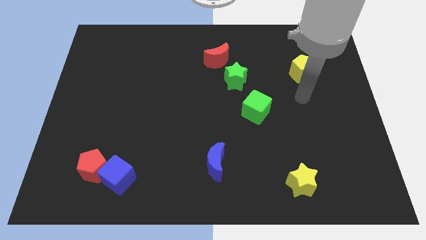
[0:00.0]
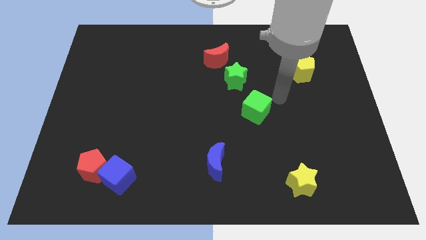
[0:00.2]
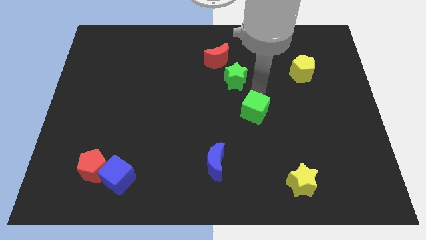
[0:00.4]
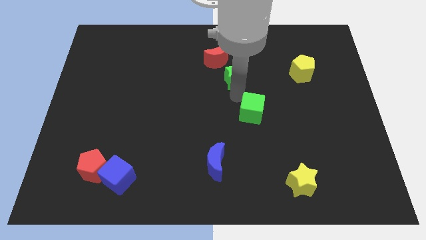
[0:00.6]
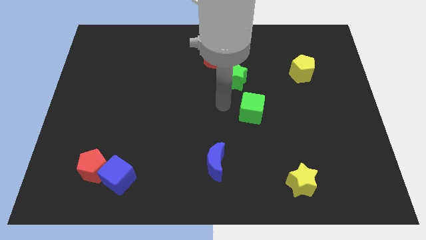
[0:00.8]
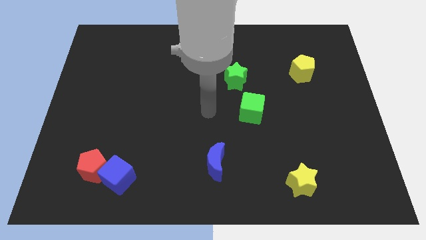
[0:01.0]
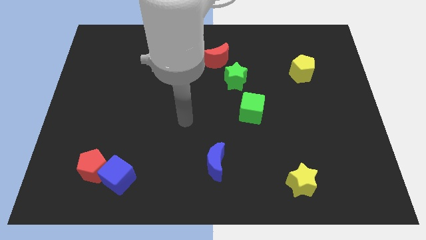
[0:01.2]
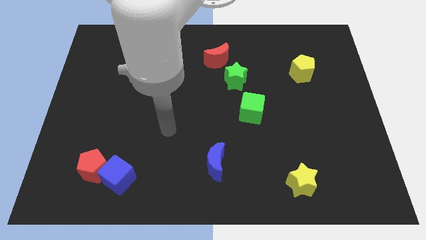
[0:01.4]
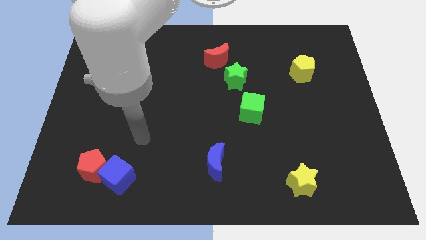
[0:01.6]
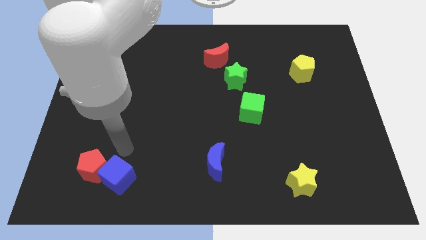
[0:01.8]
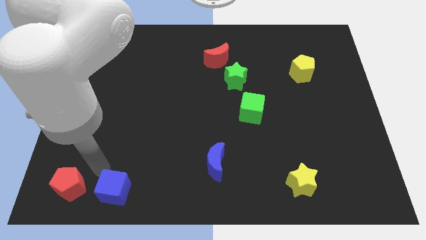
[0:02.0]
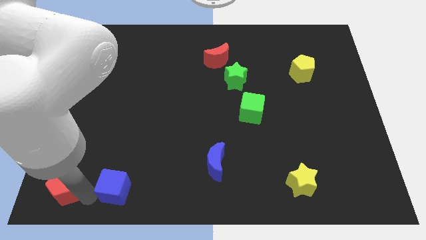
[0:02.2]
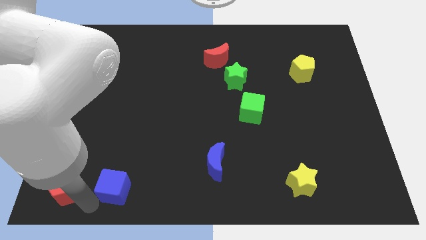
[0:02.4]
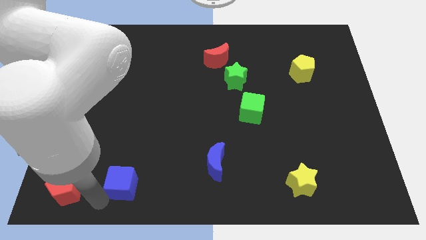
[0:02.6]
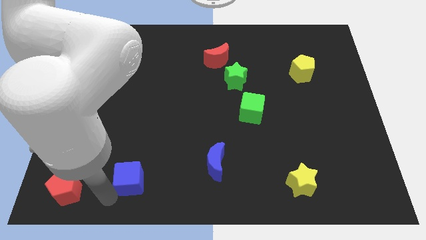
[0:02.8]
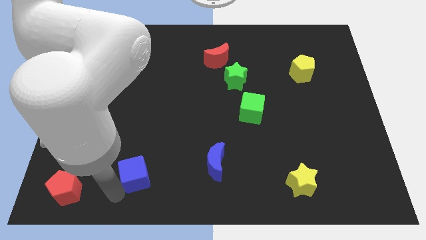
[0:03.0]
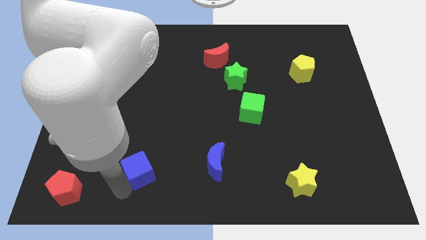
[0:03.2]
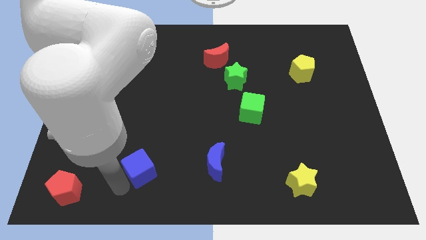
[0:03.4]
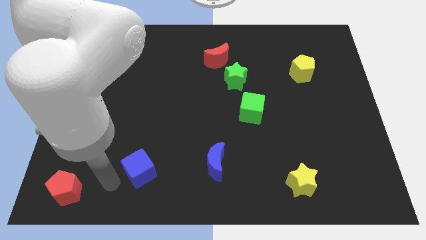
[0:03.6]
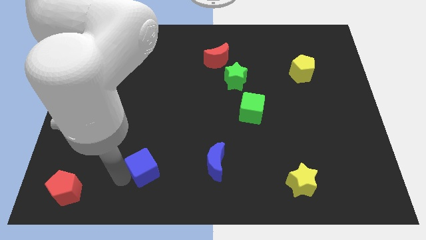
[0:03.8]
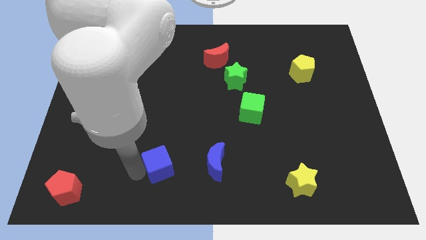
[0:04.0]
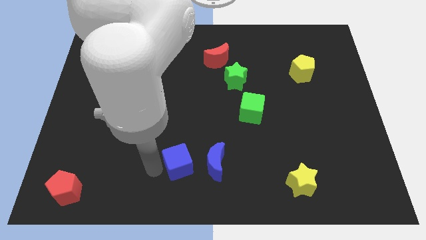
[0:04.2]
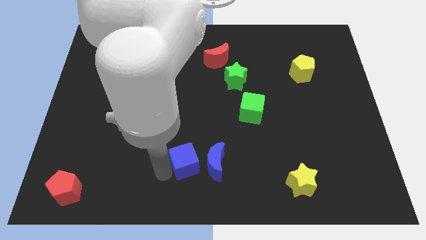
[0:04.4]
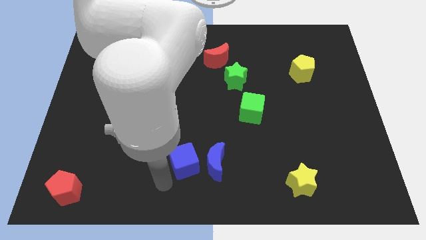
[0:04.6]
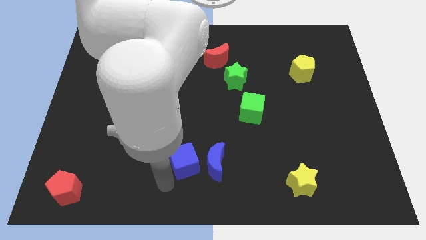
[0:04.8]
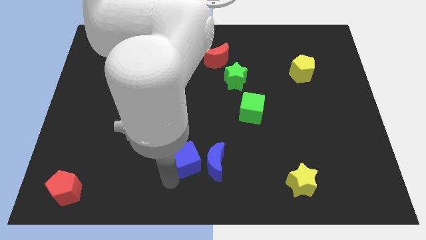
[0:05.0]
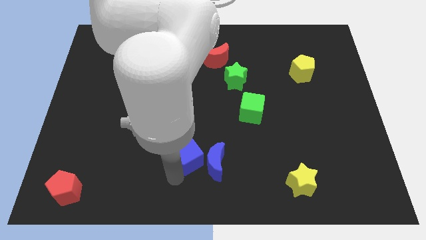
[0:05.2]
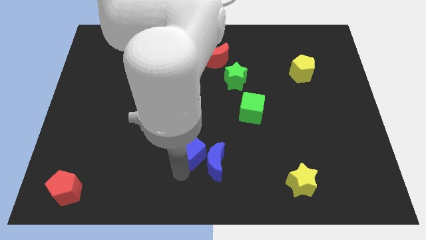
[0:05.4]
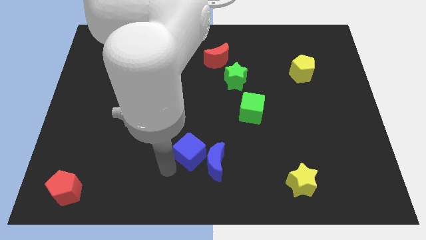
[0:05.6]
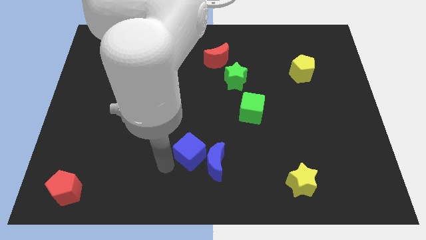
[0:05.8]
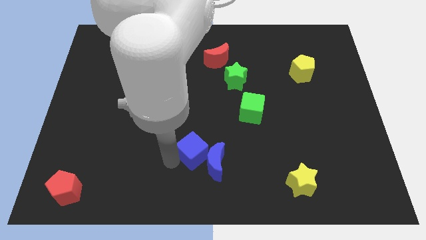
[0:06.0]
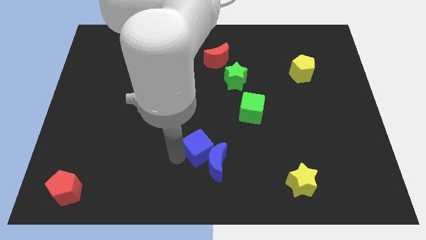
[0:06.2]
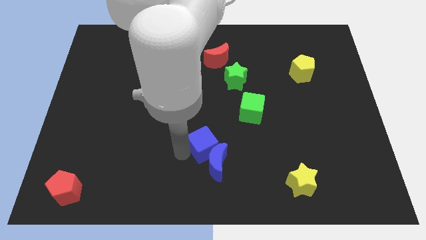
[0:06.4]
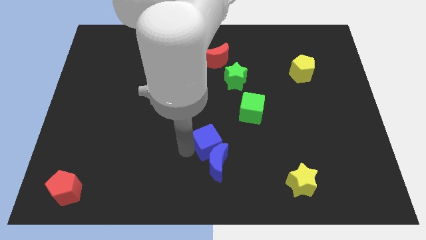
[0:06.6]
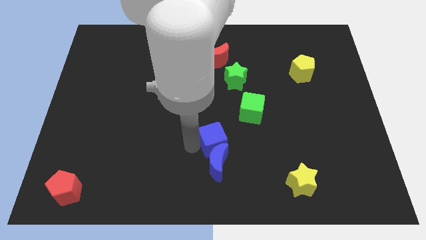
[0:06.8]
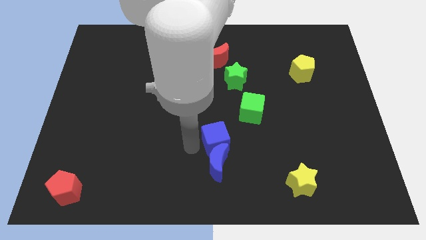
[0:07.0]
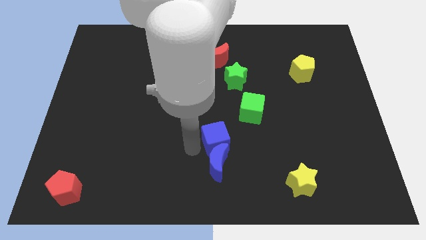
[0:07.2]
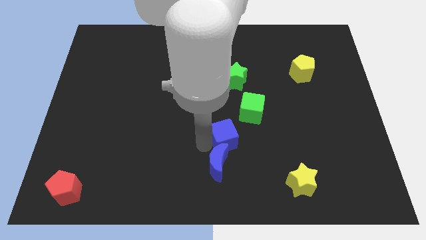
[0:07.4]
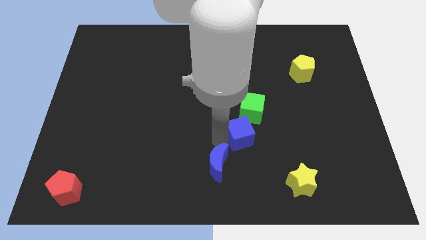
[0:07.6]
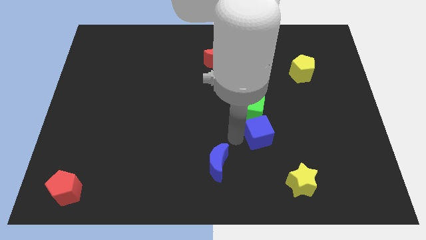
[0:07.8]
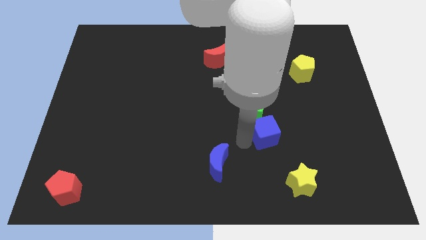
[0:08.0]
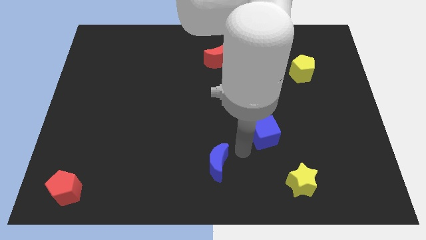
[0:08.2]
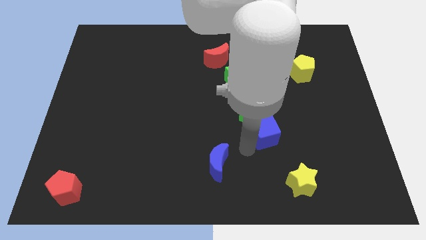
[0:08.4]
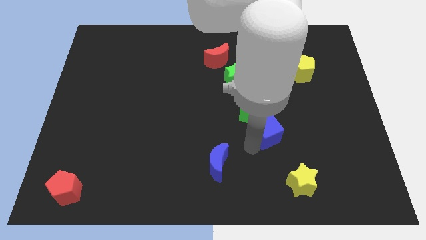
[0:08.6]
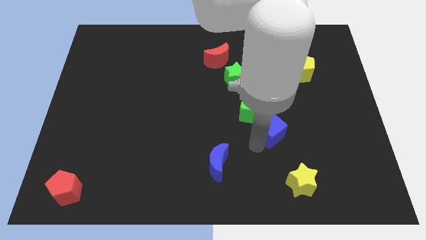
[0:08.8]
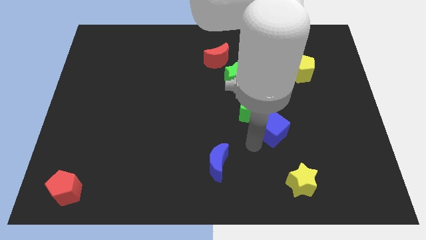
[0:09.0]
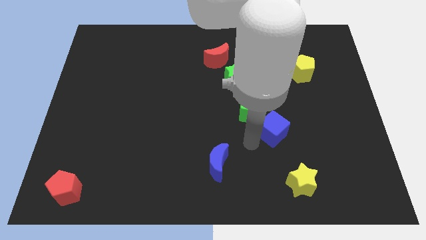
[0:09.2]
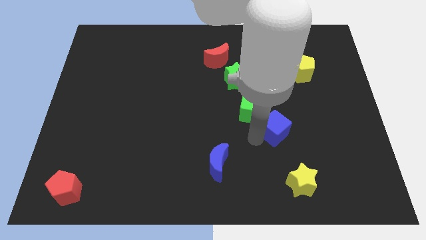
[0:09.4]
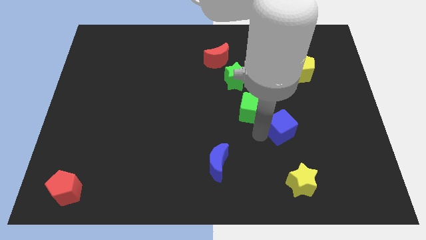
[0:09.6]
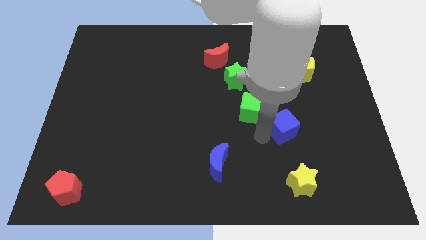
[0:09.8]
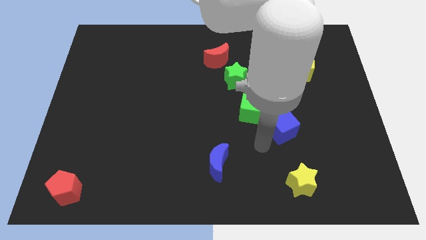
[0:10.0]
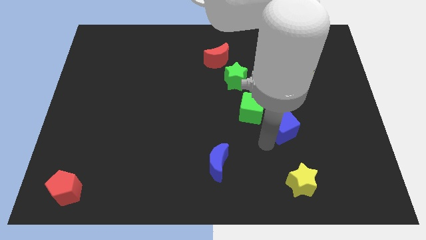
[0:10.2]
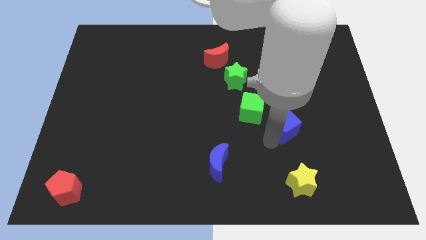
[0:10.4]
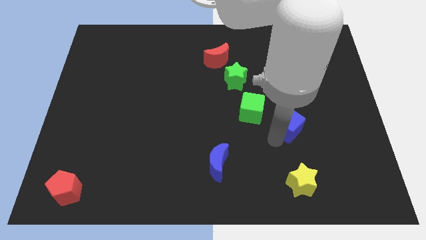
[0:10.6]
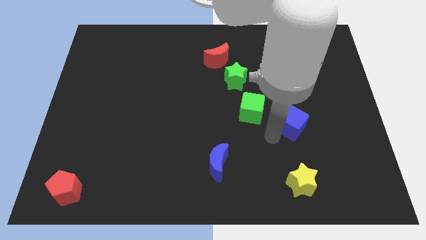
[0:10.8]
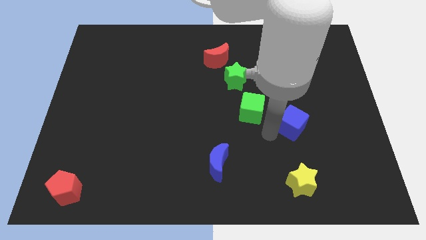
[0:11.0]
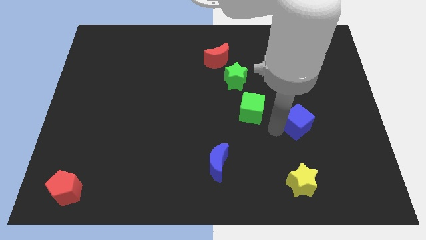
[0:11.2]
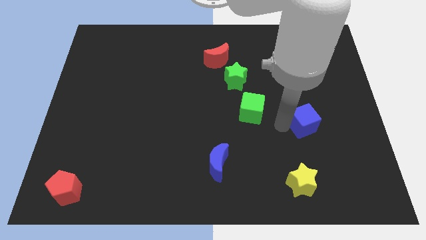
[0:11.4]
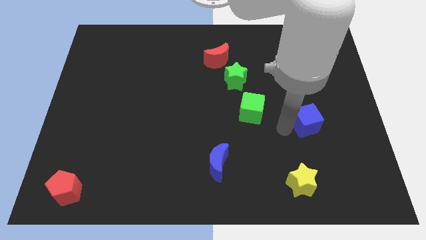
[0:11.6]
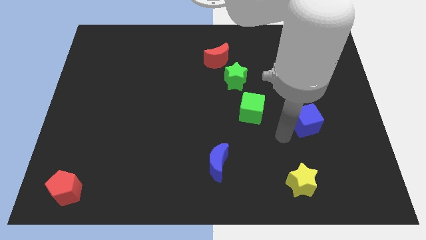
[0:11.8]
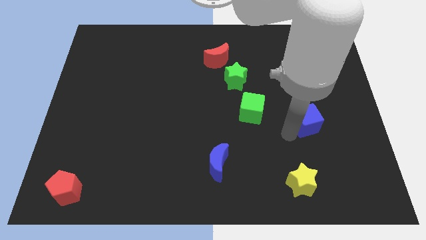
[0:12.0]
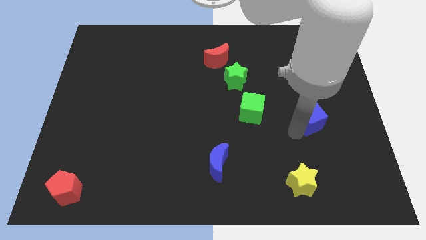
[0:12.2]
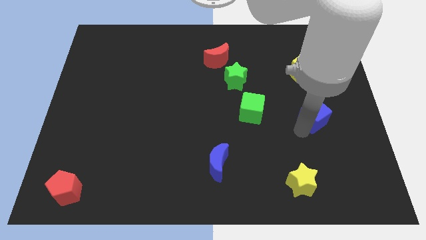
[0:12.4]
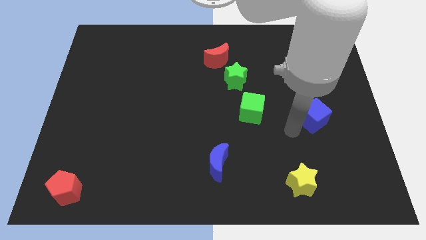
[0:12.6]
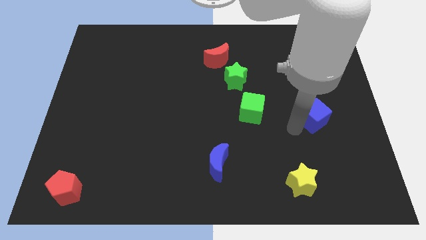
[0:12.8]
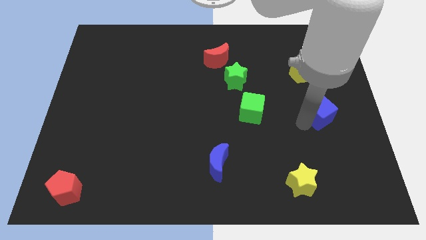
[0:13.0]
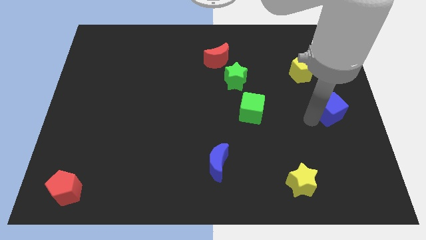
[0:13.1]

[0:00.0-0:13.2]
slide the blue cube to the right side of the board
